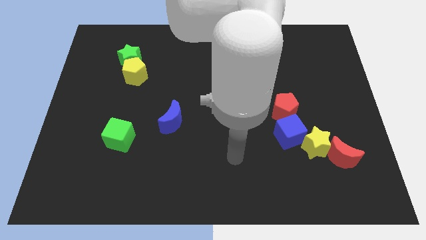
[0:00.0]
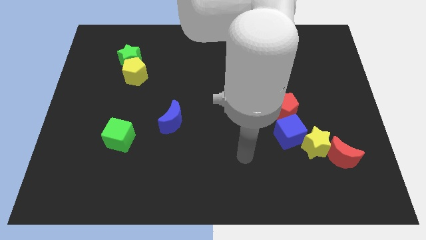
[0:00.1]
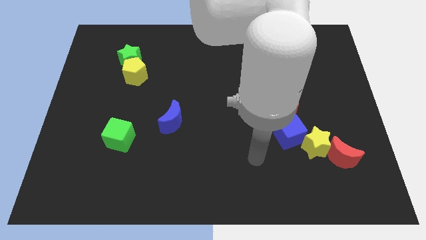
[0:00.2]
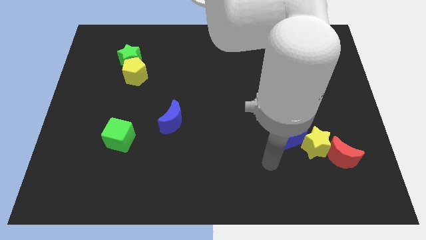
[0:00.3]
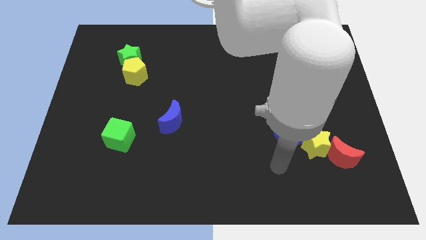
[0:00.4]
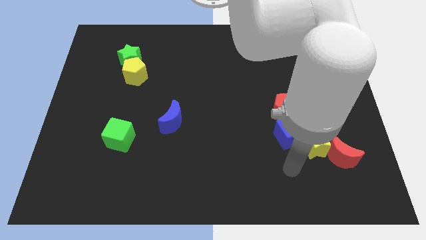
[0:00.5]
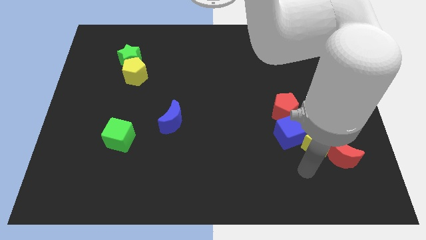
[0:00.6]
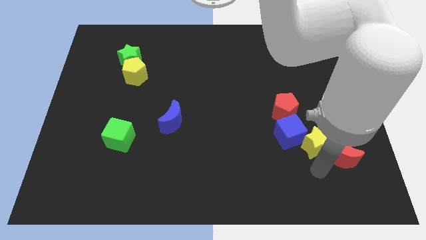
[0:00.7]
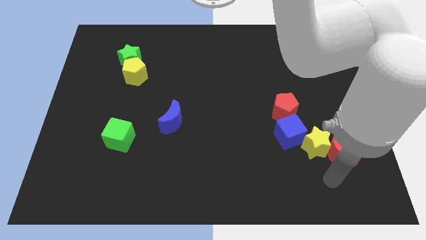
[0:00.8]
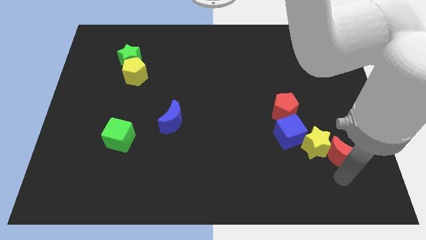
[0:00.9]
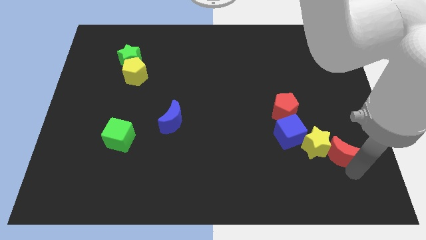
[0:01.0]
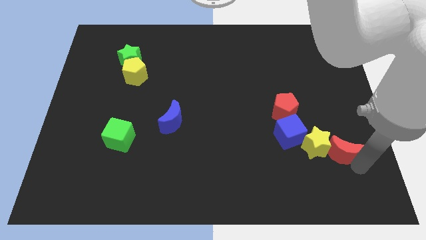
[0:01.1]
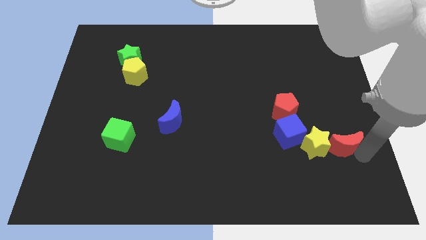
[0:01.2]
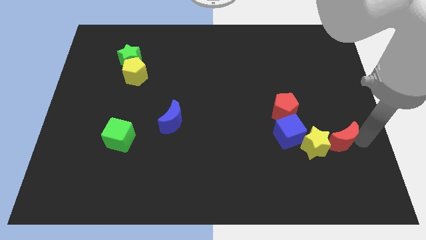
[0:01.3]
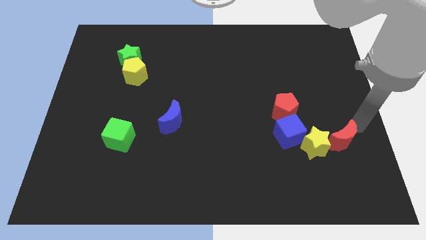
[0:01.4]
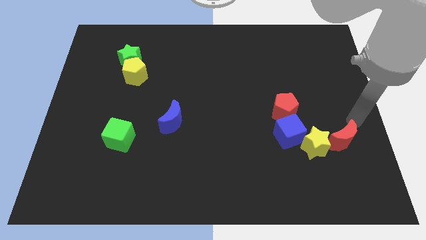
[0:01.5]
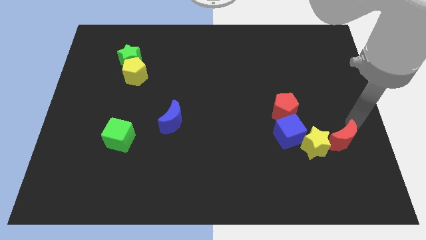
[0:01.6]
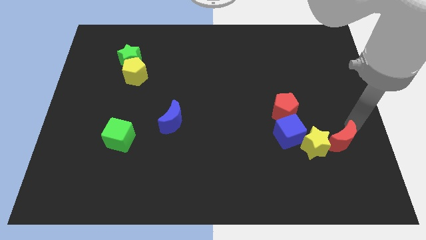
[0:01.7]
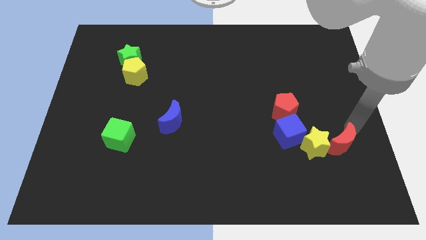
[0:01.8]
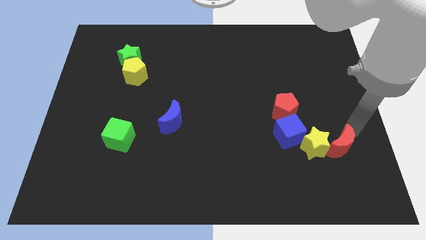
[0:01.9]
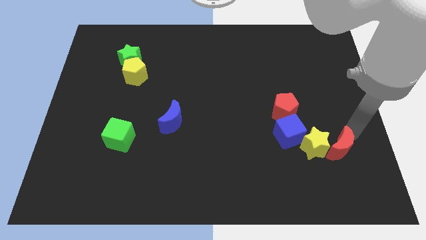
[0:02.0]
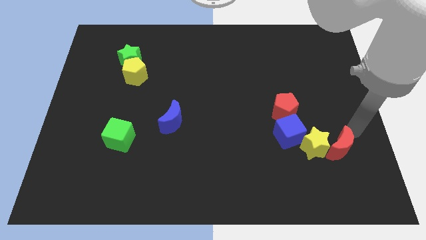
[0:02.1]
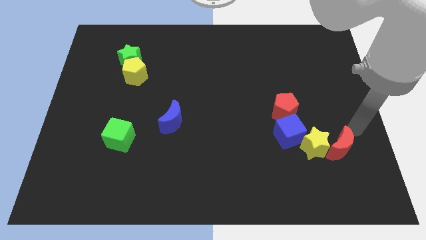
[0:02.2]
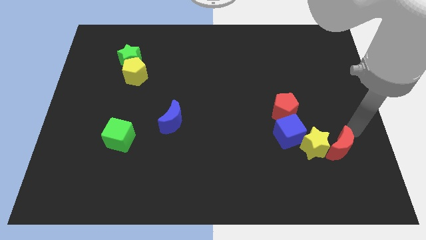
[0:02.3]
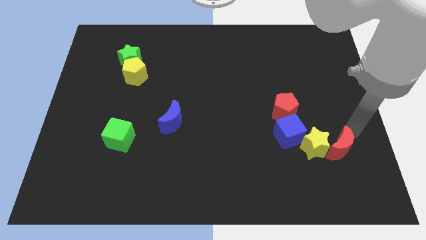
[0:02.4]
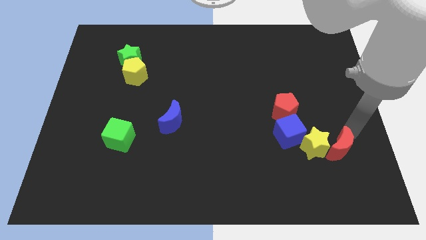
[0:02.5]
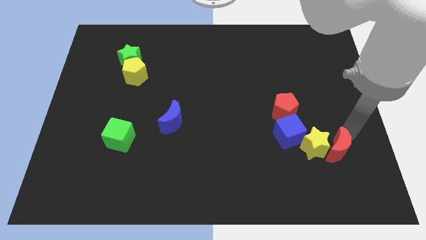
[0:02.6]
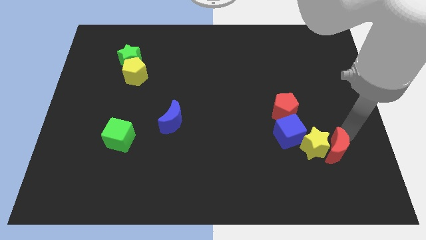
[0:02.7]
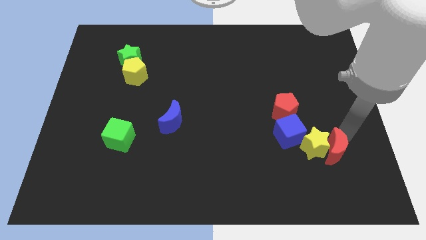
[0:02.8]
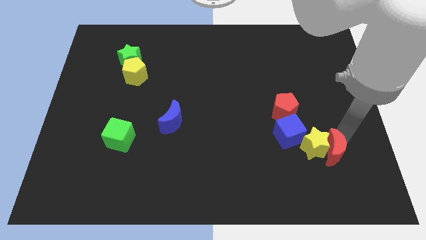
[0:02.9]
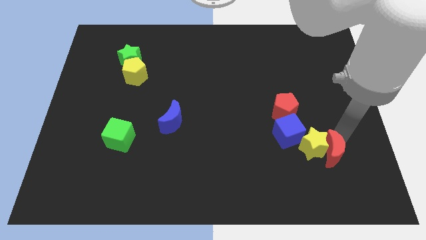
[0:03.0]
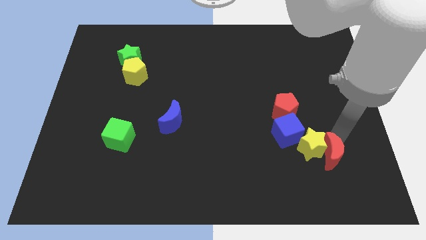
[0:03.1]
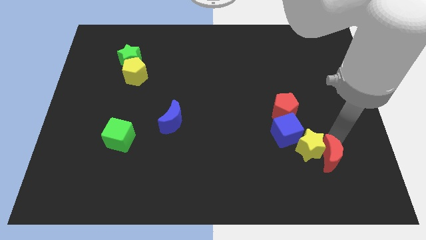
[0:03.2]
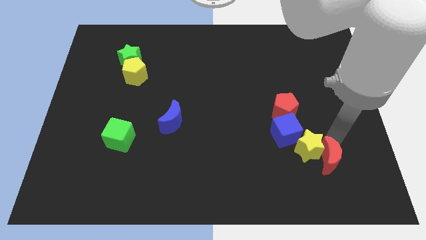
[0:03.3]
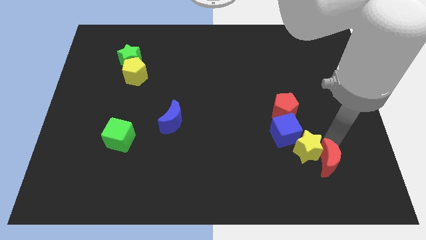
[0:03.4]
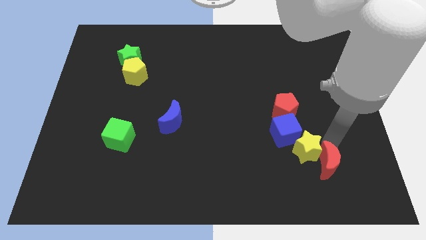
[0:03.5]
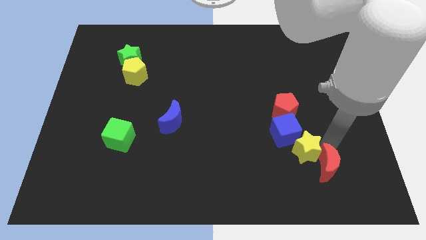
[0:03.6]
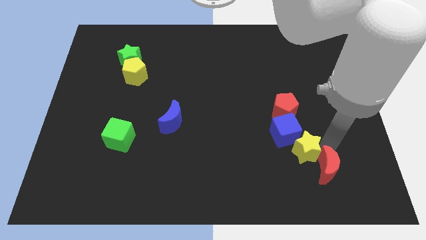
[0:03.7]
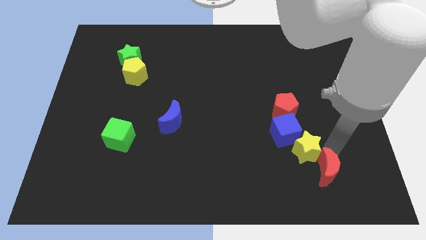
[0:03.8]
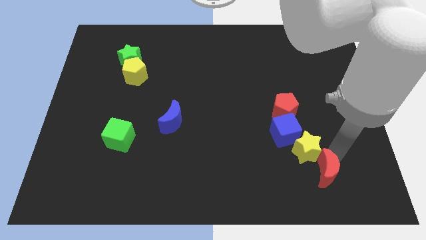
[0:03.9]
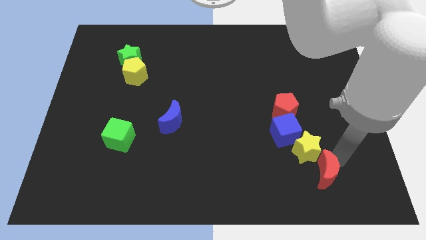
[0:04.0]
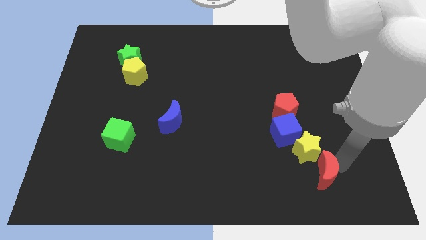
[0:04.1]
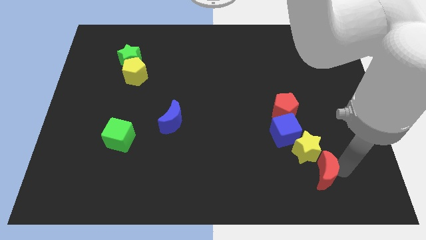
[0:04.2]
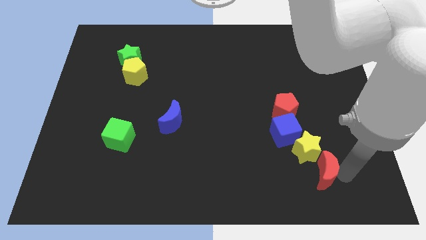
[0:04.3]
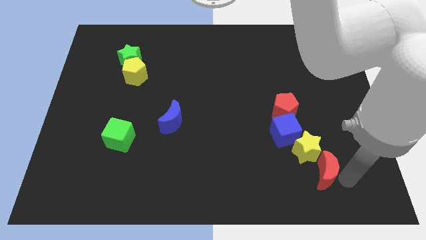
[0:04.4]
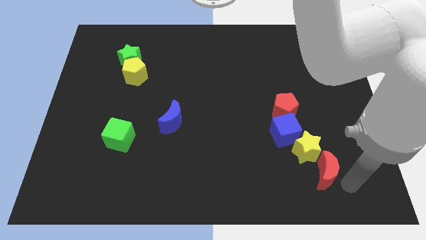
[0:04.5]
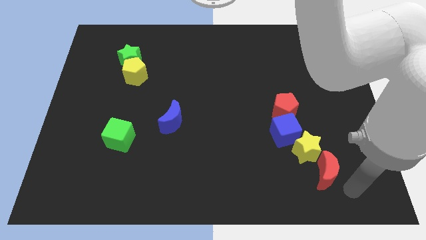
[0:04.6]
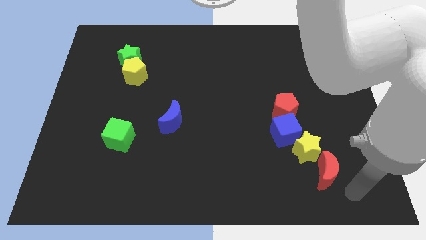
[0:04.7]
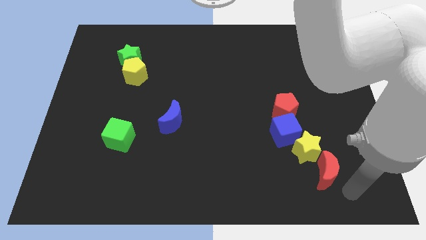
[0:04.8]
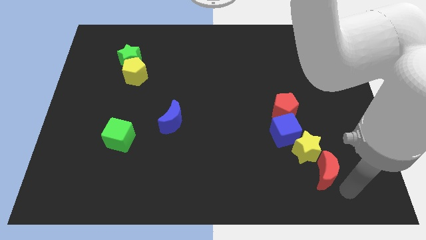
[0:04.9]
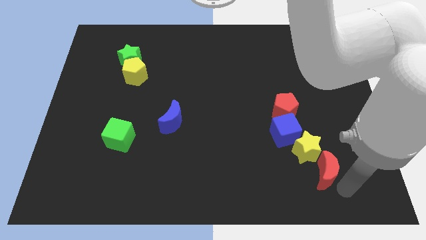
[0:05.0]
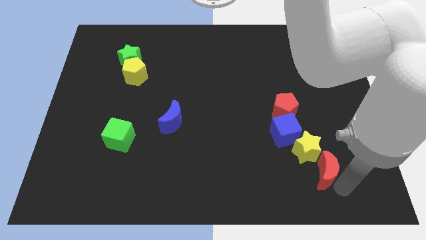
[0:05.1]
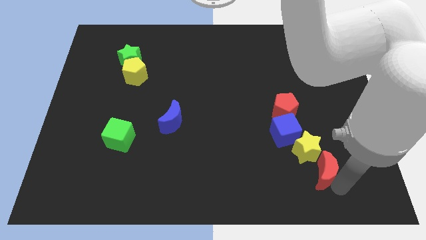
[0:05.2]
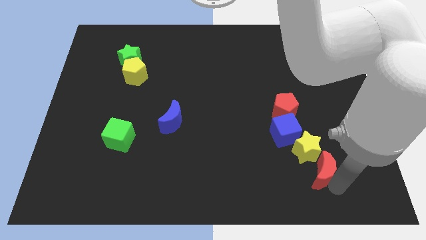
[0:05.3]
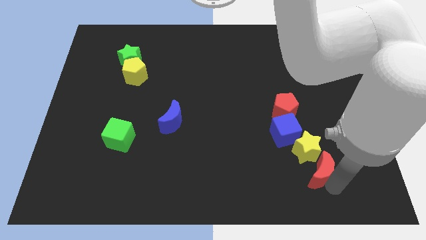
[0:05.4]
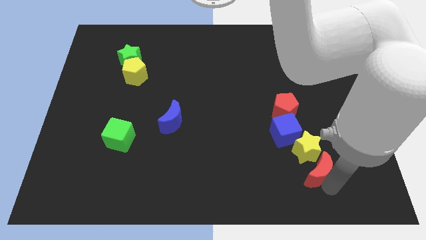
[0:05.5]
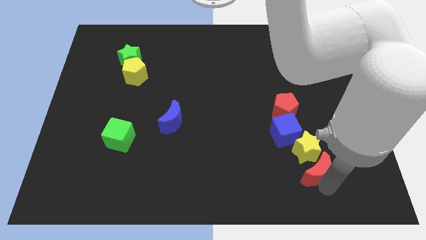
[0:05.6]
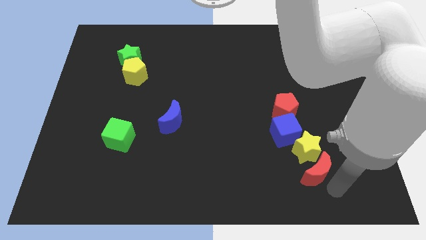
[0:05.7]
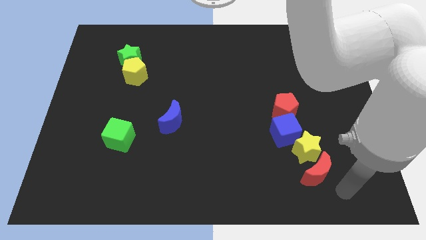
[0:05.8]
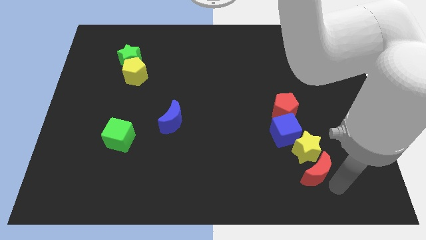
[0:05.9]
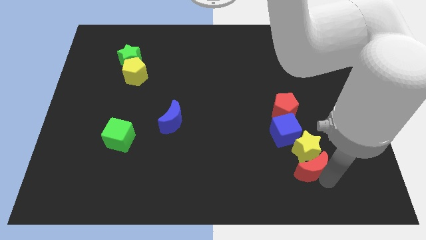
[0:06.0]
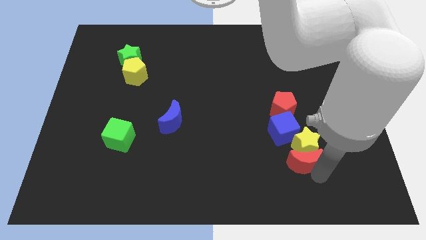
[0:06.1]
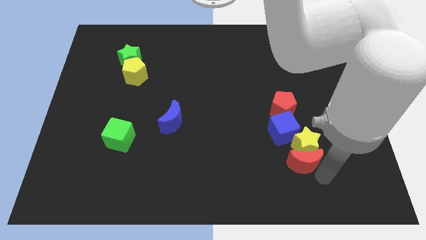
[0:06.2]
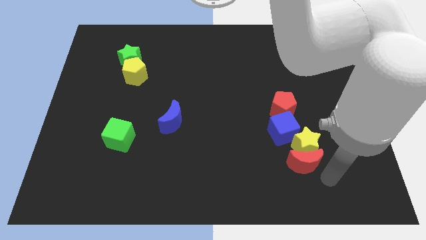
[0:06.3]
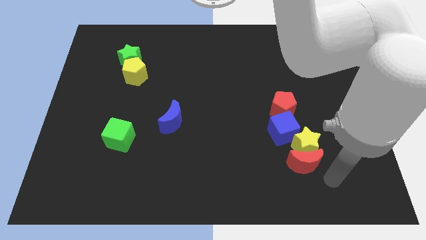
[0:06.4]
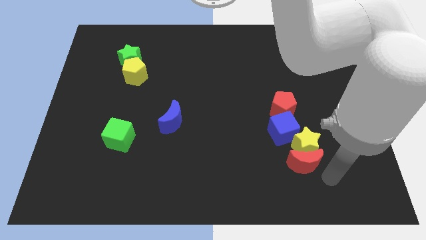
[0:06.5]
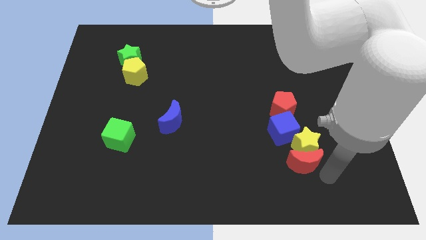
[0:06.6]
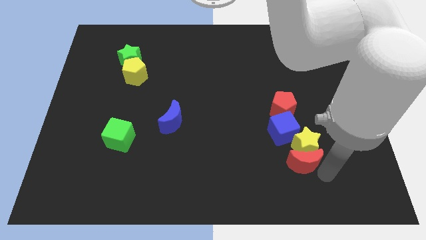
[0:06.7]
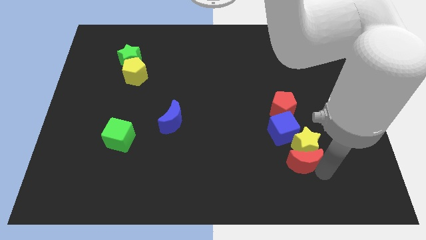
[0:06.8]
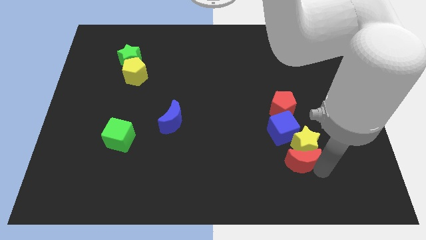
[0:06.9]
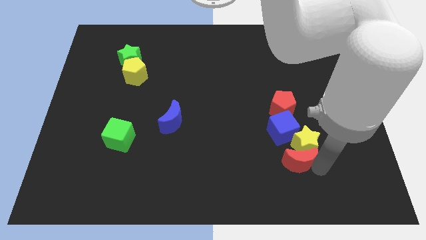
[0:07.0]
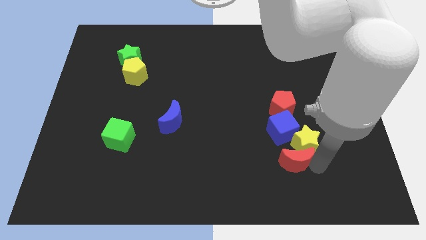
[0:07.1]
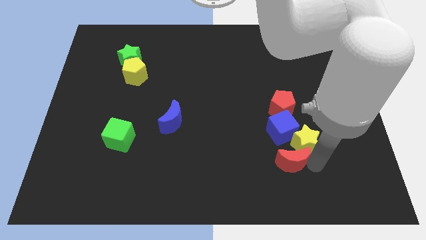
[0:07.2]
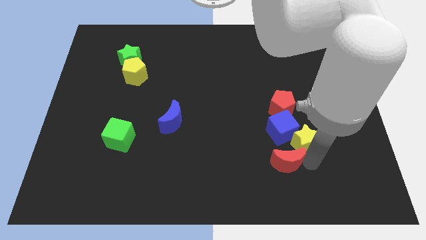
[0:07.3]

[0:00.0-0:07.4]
push the red moon to the left of the yellow star

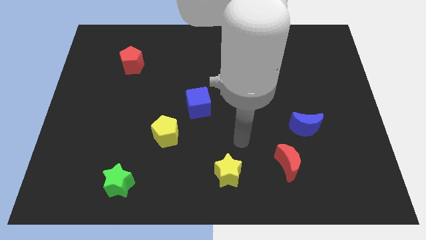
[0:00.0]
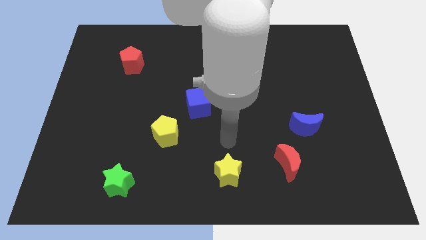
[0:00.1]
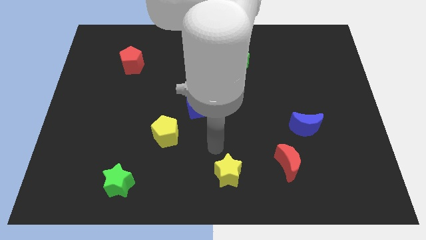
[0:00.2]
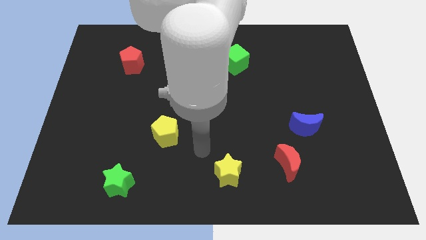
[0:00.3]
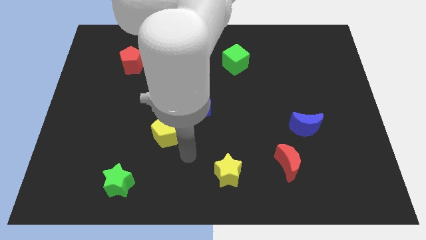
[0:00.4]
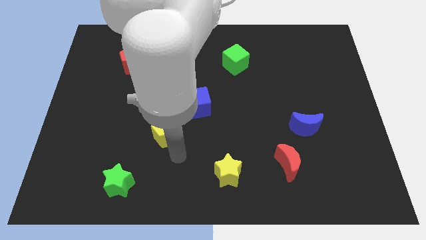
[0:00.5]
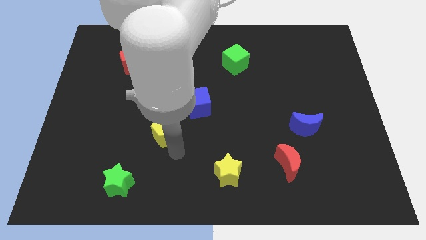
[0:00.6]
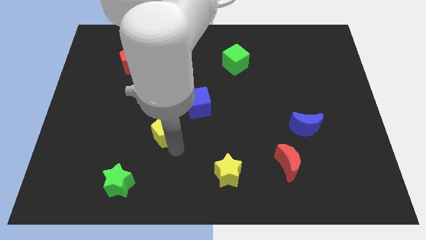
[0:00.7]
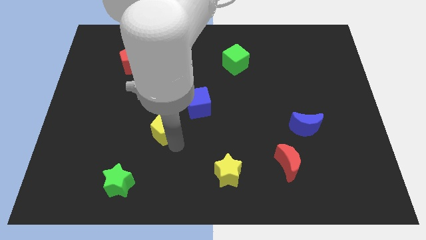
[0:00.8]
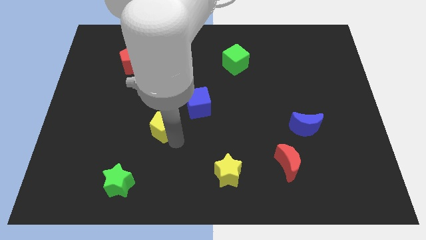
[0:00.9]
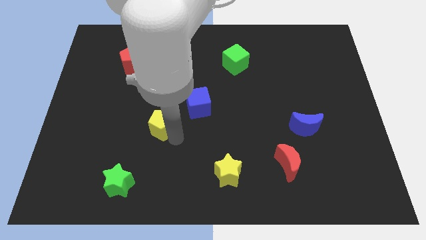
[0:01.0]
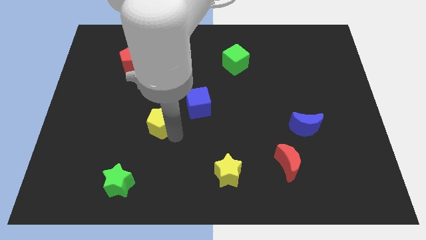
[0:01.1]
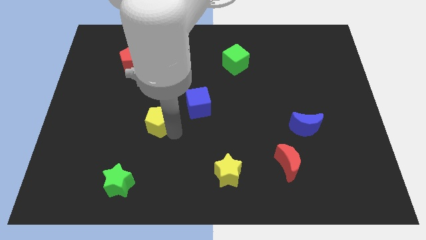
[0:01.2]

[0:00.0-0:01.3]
push the yellow pentagon to the left side of the blue cube
